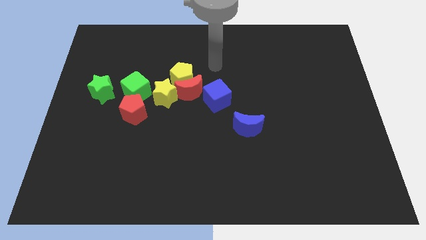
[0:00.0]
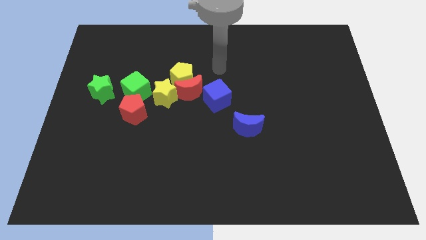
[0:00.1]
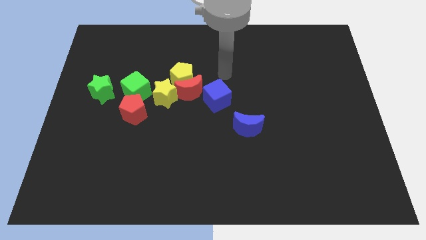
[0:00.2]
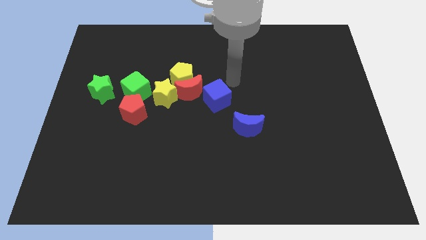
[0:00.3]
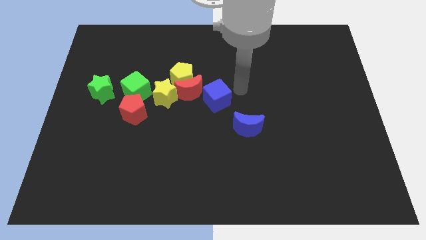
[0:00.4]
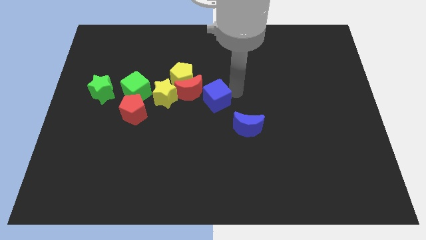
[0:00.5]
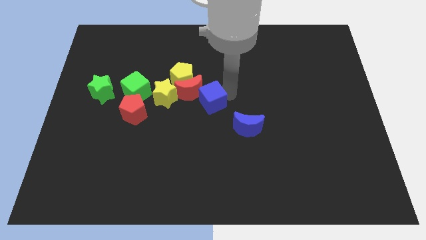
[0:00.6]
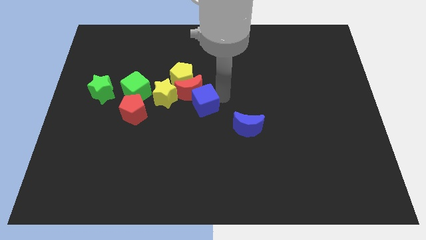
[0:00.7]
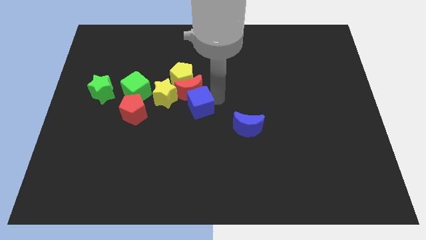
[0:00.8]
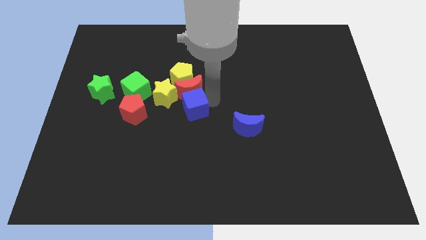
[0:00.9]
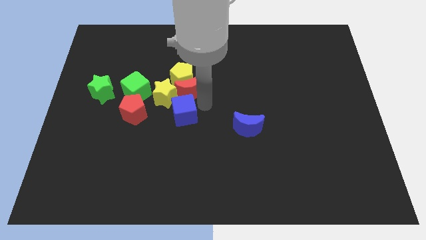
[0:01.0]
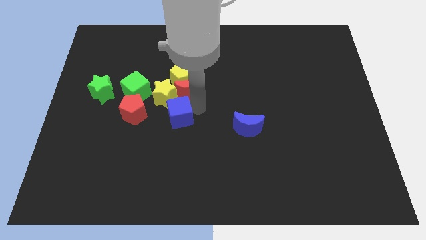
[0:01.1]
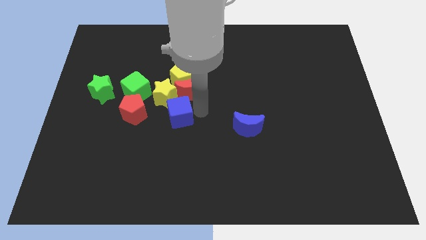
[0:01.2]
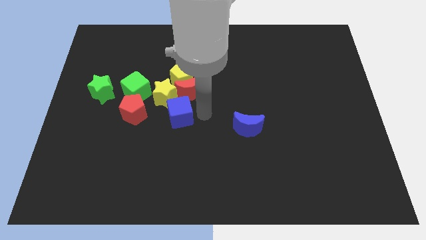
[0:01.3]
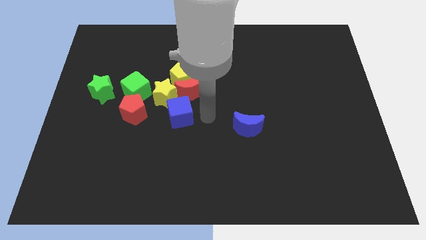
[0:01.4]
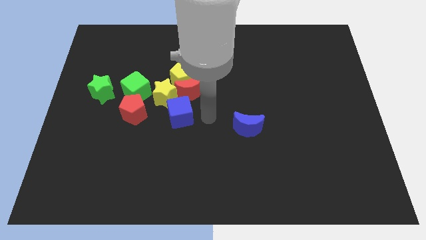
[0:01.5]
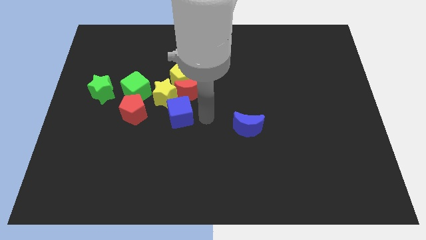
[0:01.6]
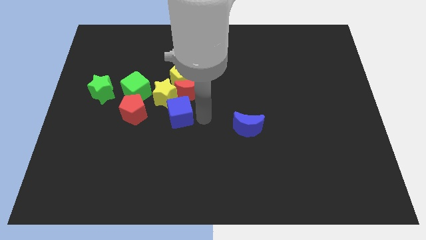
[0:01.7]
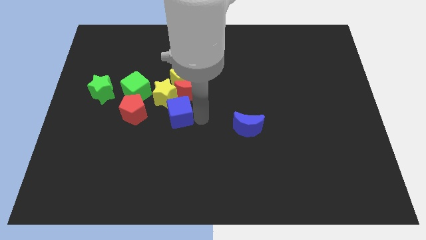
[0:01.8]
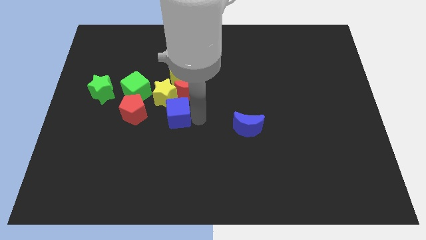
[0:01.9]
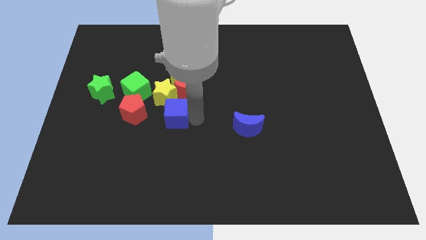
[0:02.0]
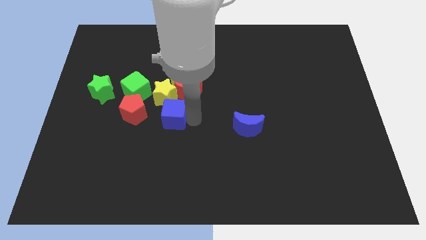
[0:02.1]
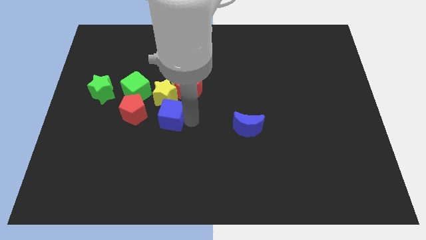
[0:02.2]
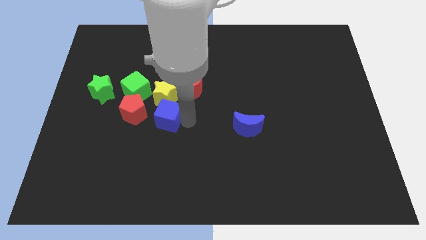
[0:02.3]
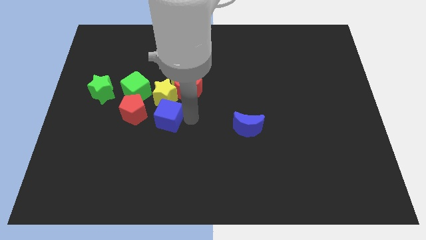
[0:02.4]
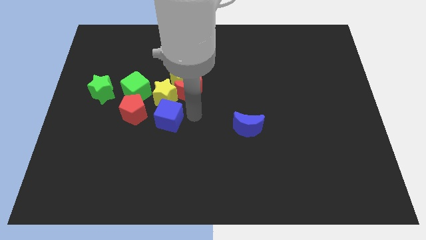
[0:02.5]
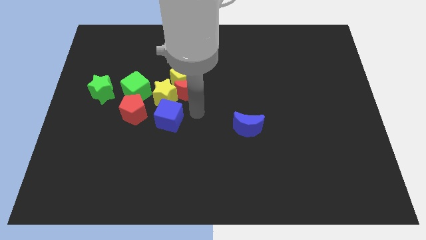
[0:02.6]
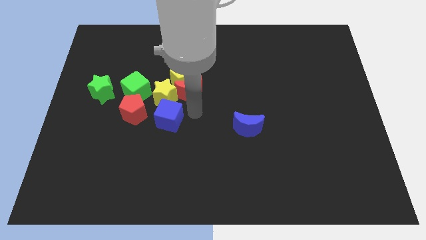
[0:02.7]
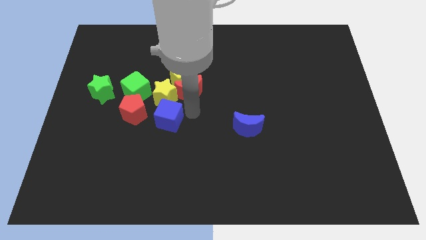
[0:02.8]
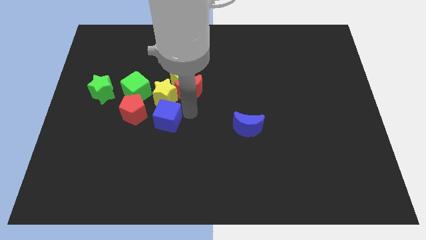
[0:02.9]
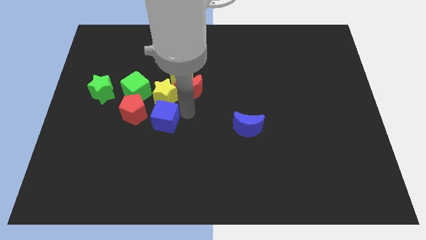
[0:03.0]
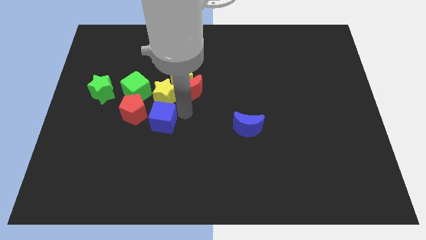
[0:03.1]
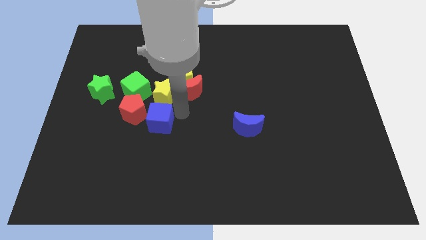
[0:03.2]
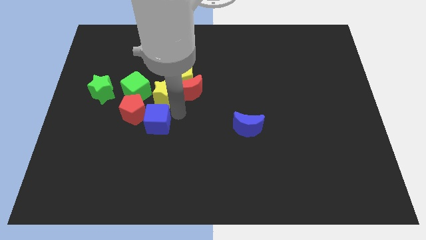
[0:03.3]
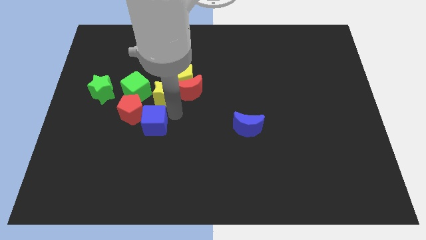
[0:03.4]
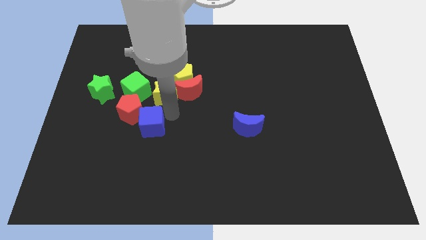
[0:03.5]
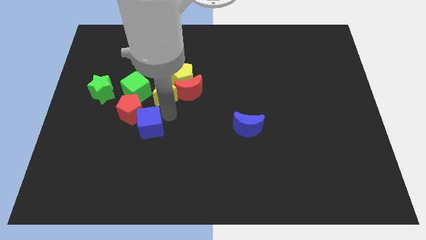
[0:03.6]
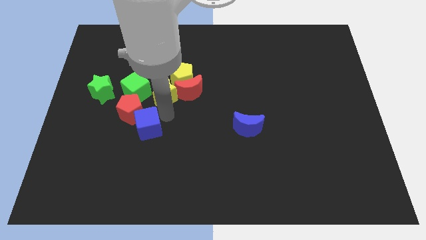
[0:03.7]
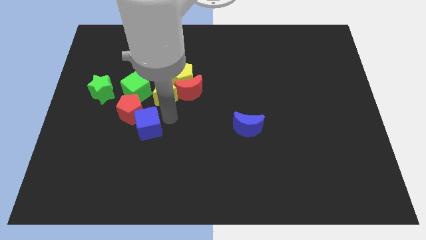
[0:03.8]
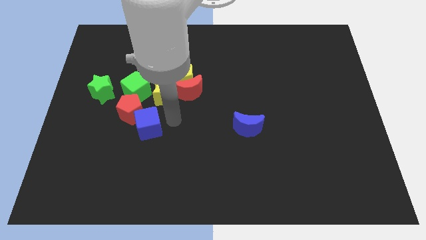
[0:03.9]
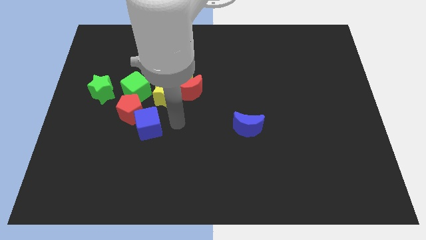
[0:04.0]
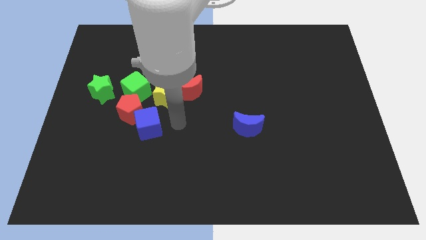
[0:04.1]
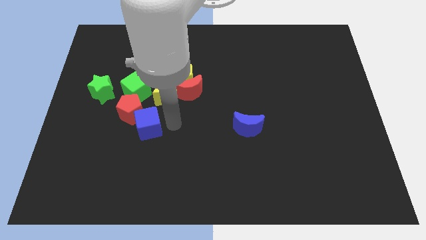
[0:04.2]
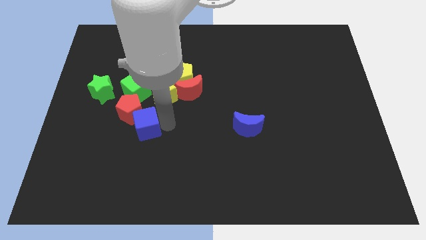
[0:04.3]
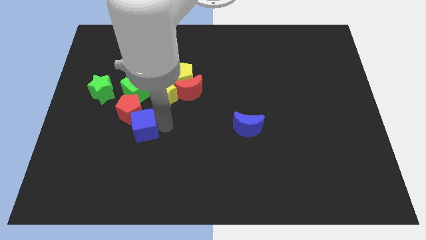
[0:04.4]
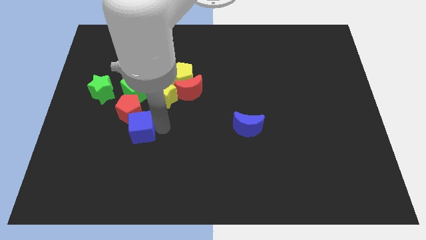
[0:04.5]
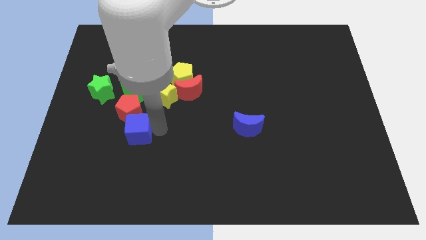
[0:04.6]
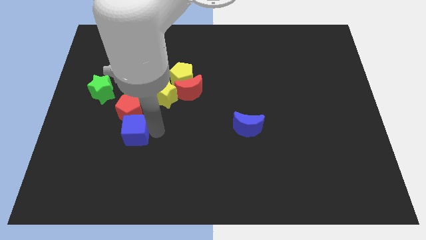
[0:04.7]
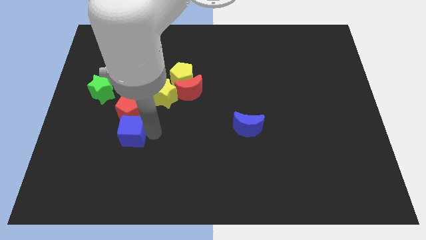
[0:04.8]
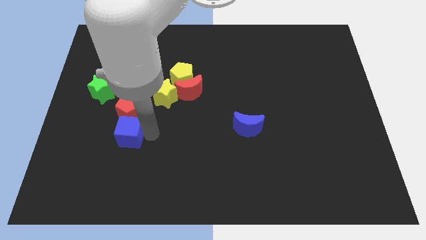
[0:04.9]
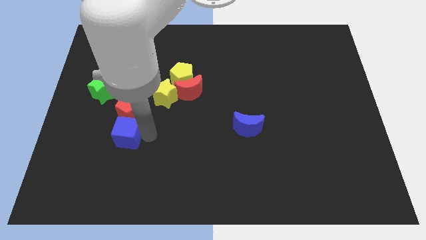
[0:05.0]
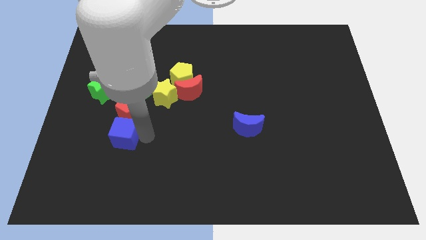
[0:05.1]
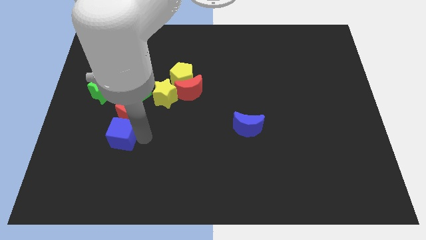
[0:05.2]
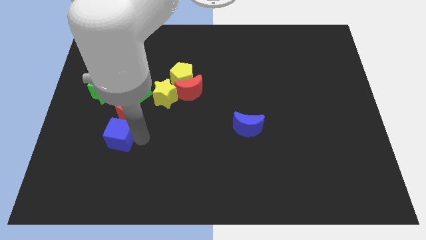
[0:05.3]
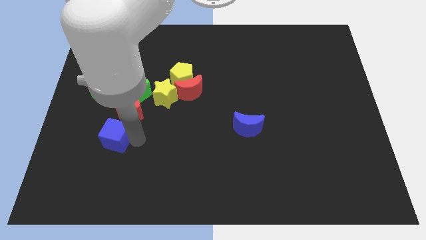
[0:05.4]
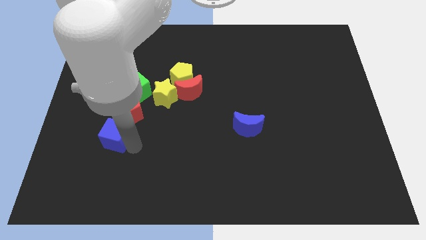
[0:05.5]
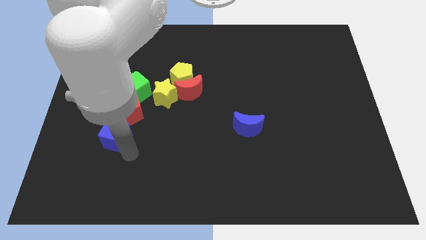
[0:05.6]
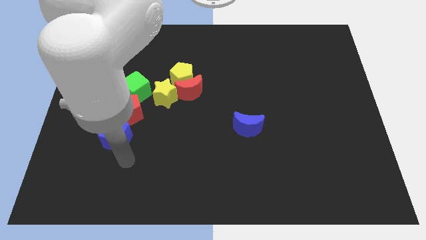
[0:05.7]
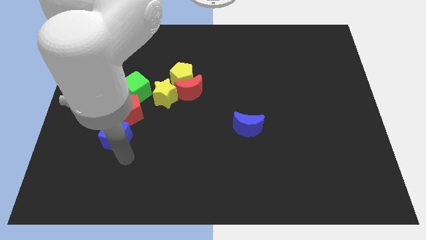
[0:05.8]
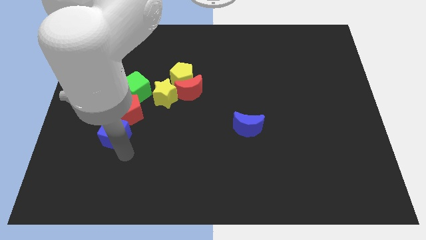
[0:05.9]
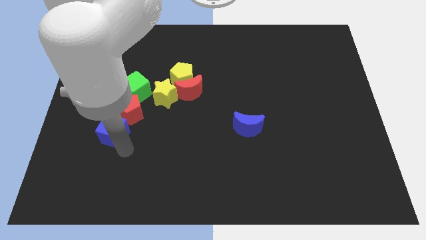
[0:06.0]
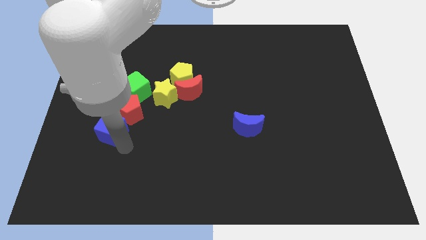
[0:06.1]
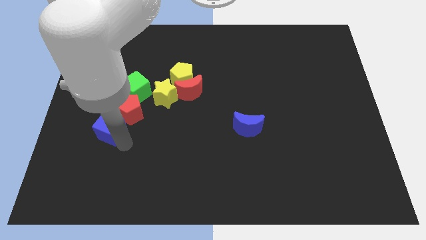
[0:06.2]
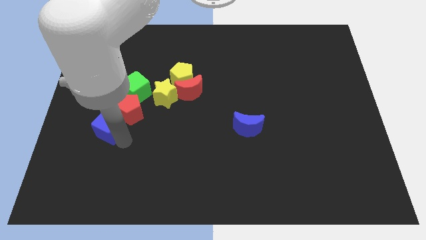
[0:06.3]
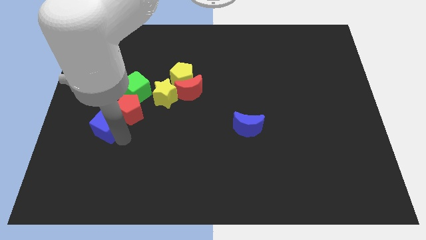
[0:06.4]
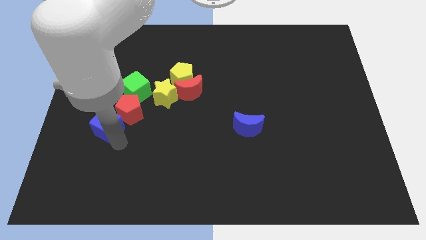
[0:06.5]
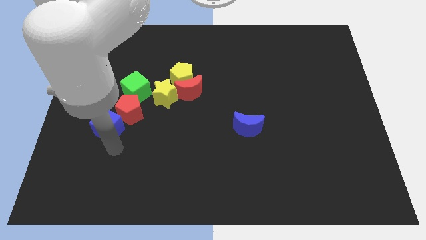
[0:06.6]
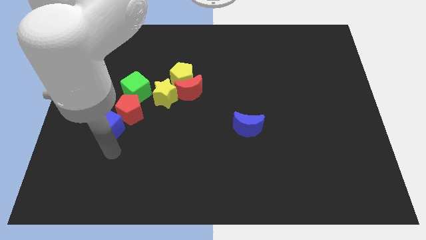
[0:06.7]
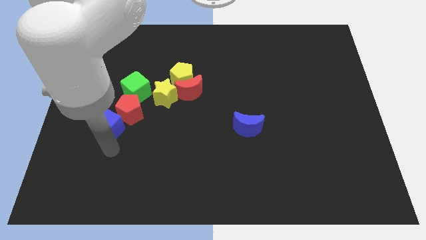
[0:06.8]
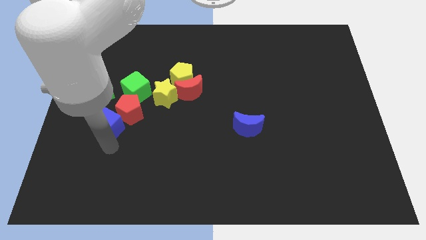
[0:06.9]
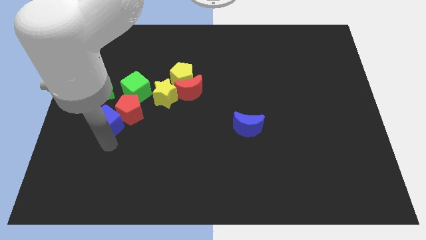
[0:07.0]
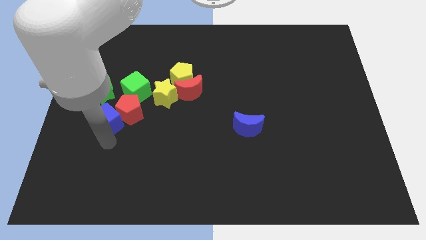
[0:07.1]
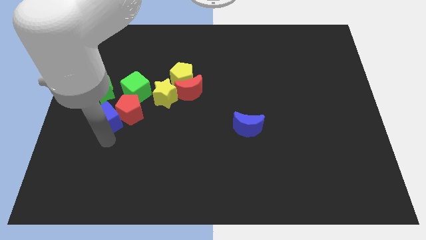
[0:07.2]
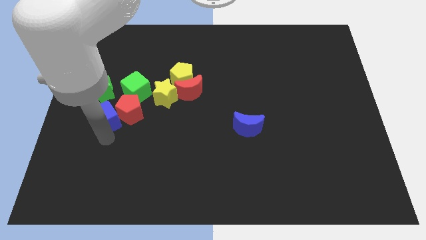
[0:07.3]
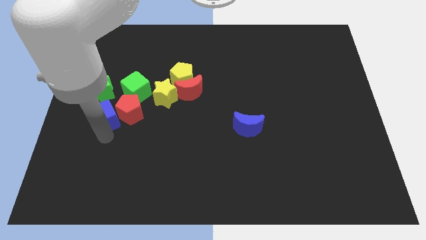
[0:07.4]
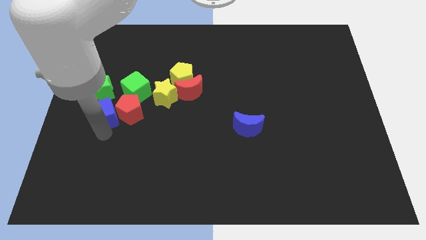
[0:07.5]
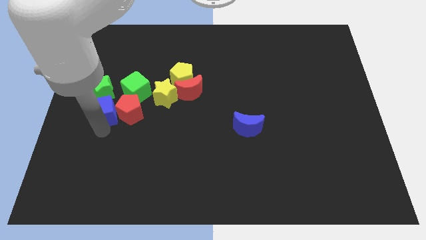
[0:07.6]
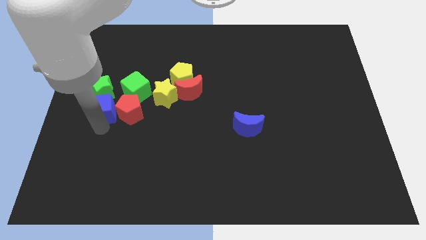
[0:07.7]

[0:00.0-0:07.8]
move the blue cube close to the green star
